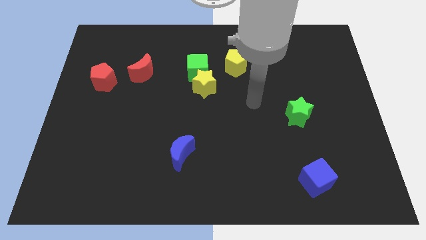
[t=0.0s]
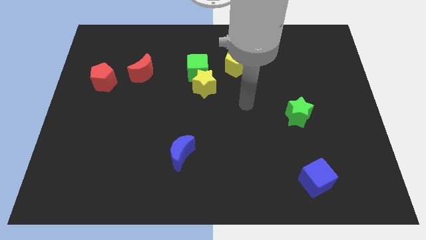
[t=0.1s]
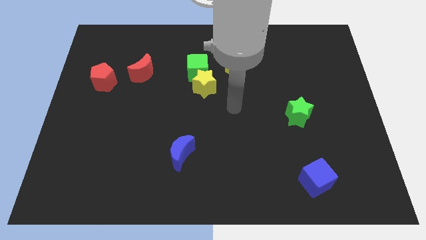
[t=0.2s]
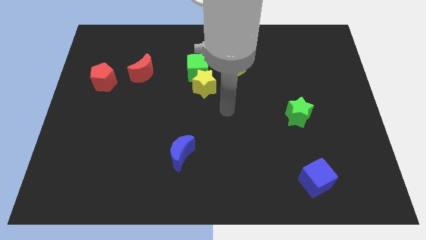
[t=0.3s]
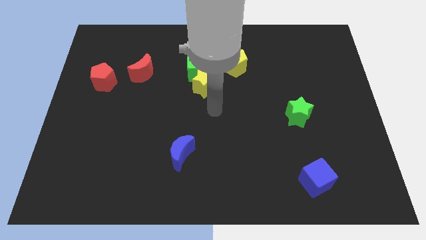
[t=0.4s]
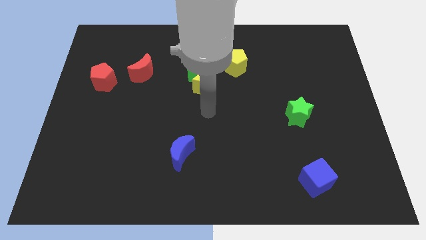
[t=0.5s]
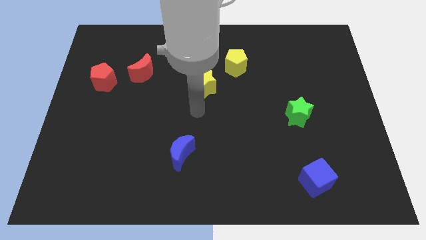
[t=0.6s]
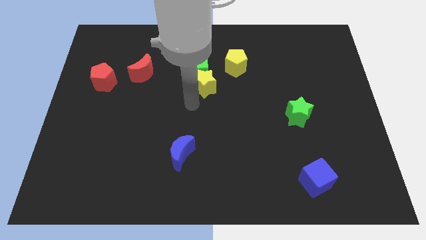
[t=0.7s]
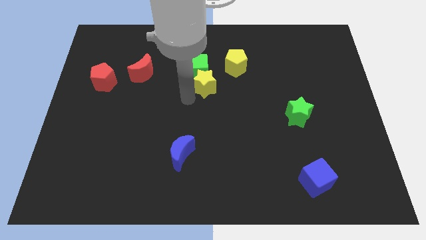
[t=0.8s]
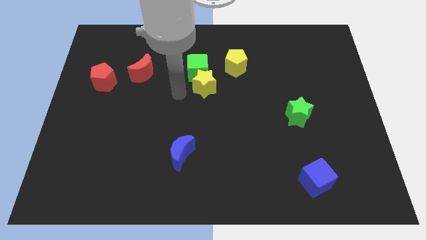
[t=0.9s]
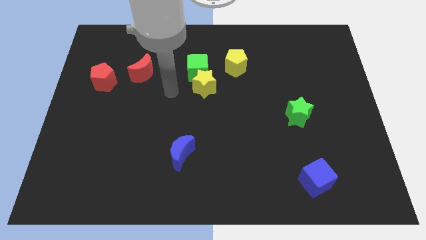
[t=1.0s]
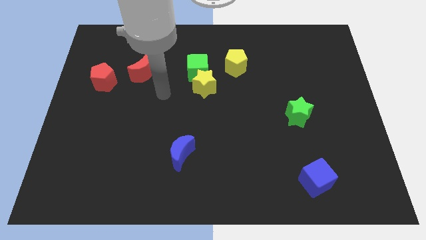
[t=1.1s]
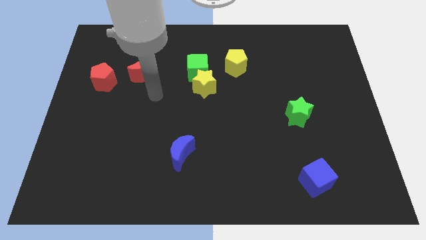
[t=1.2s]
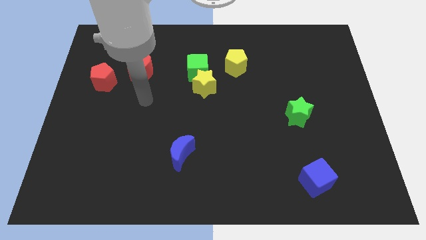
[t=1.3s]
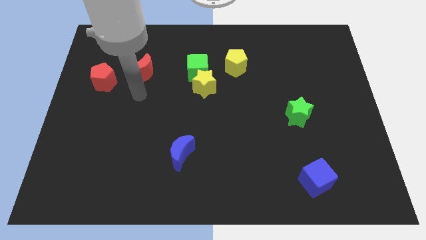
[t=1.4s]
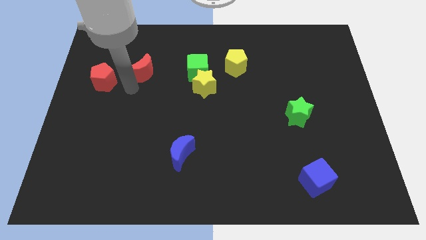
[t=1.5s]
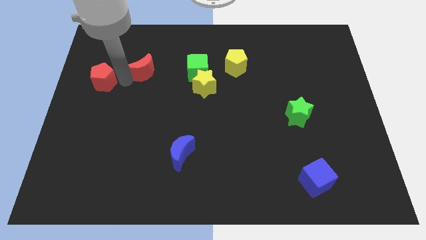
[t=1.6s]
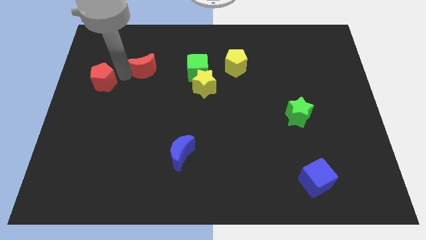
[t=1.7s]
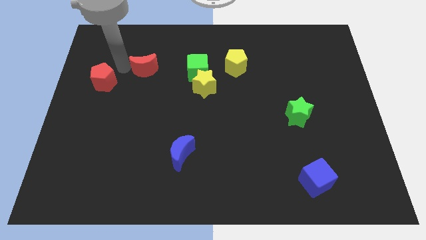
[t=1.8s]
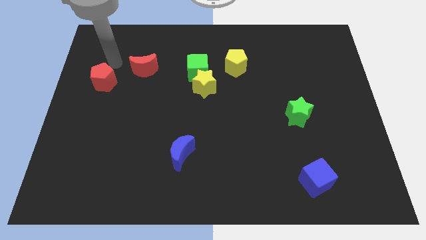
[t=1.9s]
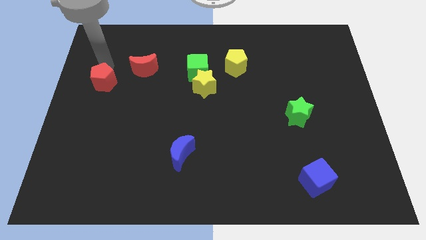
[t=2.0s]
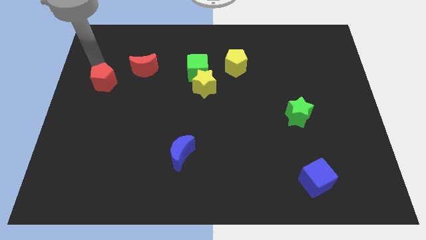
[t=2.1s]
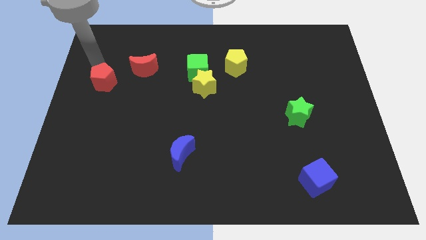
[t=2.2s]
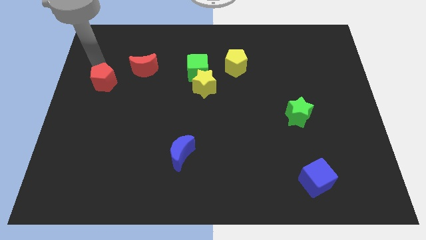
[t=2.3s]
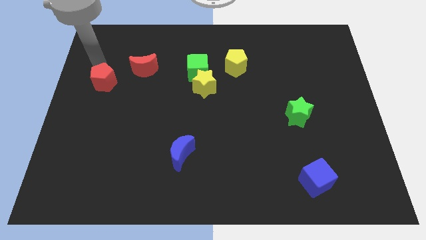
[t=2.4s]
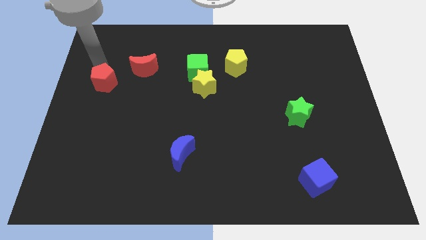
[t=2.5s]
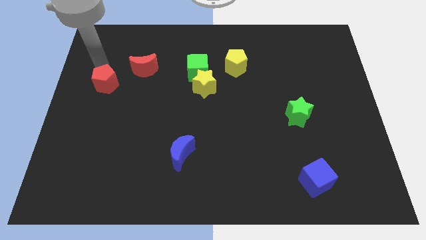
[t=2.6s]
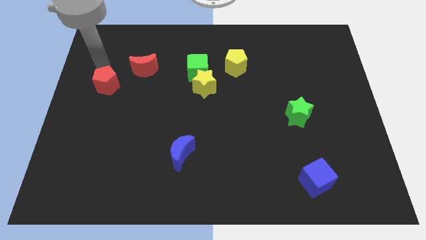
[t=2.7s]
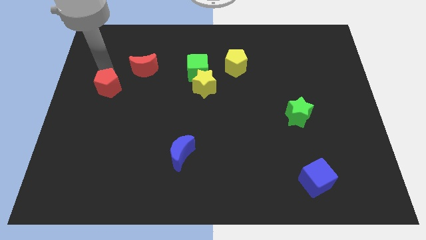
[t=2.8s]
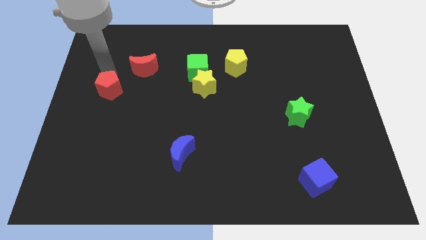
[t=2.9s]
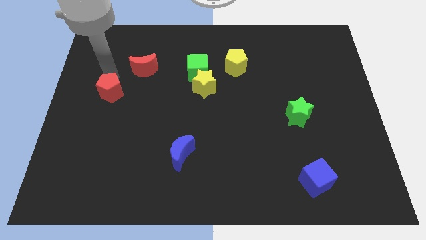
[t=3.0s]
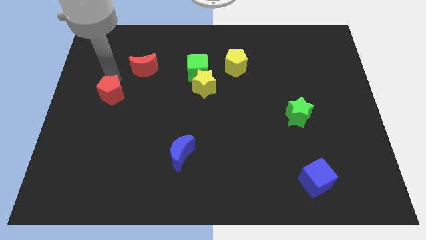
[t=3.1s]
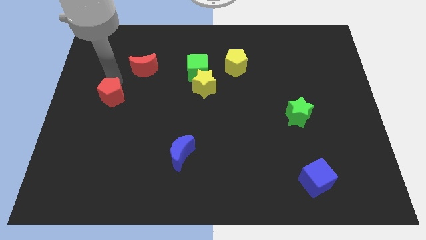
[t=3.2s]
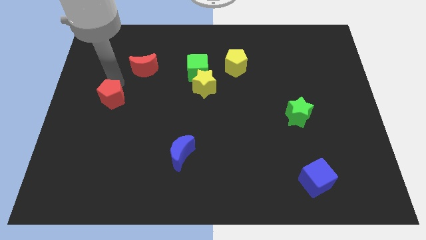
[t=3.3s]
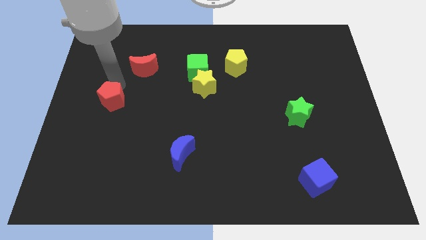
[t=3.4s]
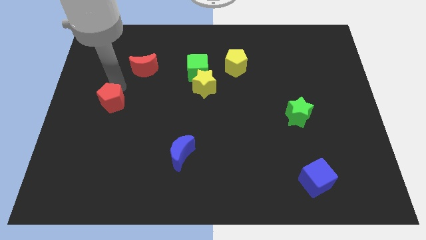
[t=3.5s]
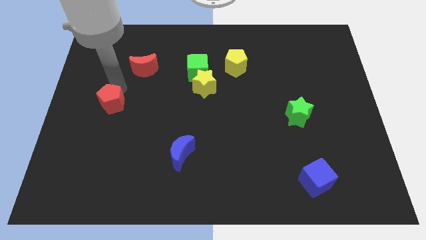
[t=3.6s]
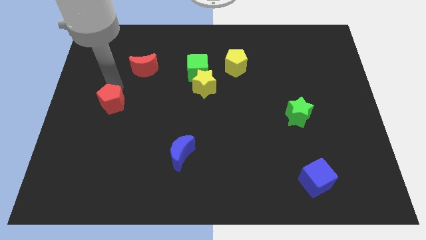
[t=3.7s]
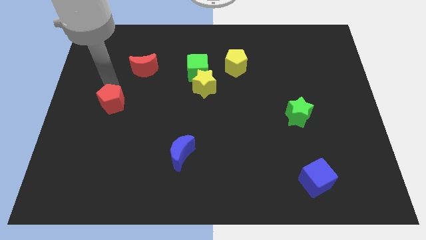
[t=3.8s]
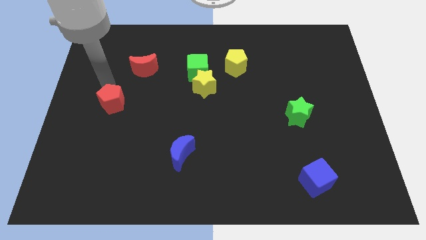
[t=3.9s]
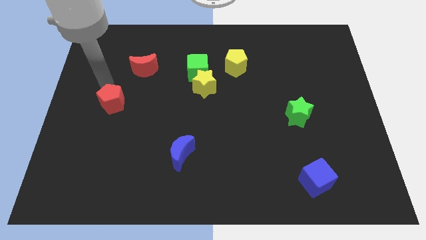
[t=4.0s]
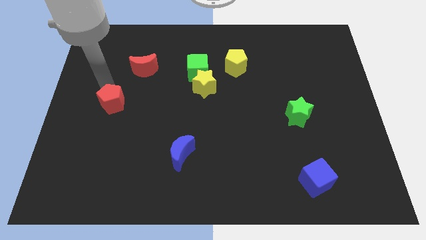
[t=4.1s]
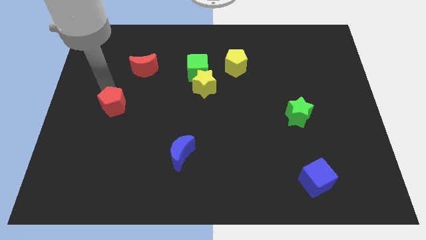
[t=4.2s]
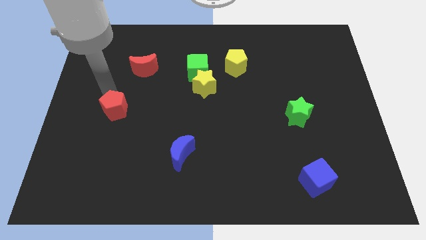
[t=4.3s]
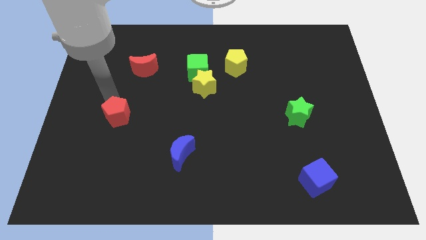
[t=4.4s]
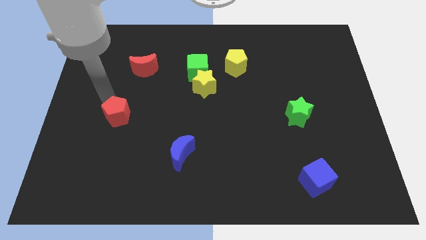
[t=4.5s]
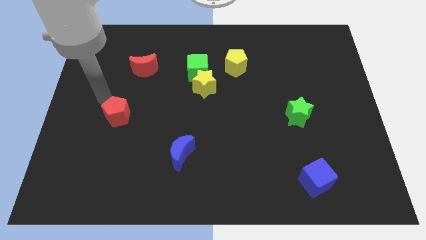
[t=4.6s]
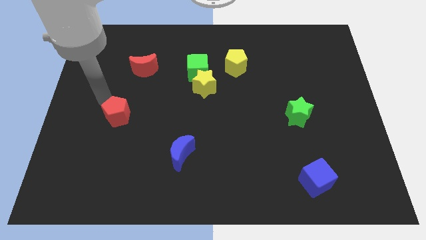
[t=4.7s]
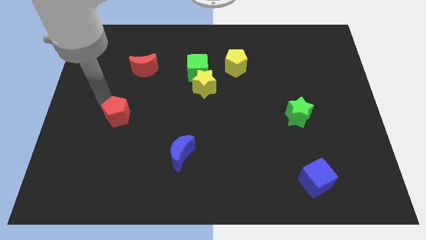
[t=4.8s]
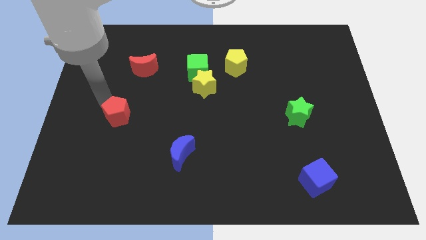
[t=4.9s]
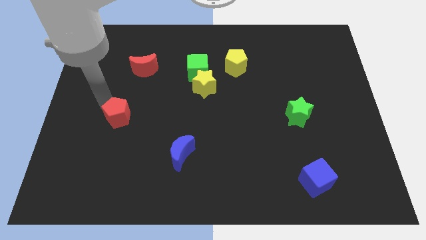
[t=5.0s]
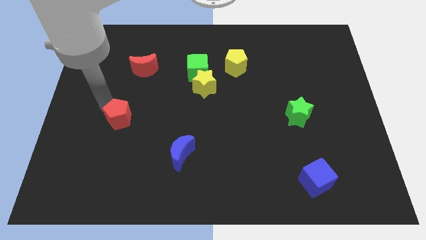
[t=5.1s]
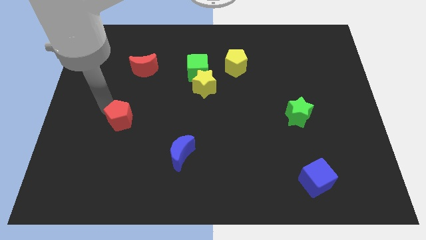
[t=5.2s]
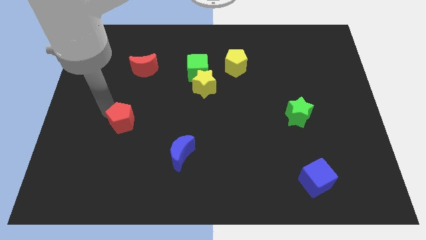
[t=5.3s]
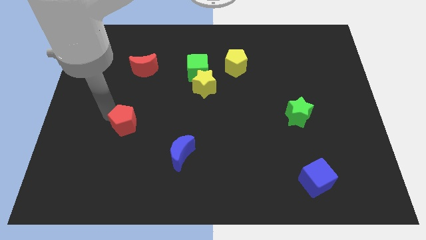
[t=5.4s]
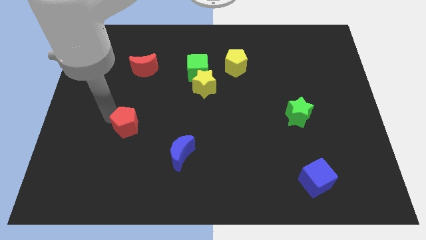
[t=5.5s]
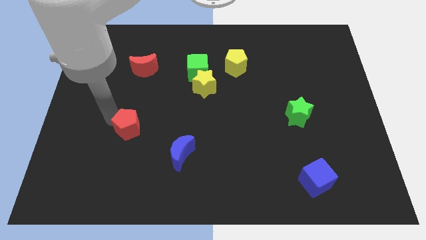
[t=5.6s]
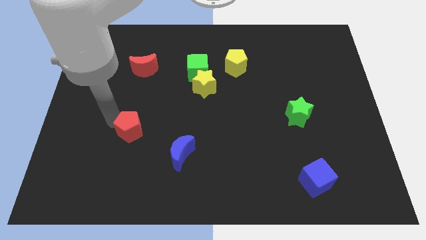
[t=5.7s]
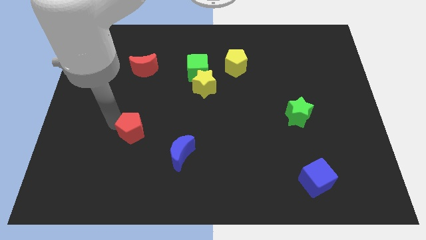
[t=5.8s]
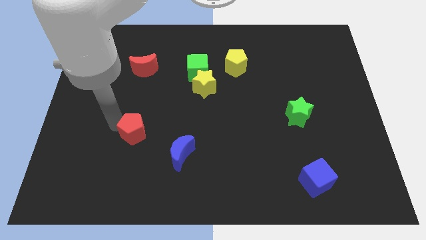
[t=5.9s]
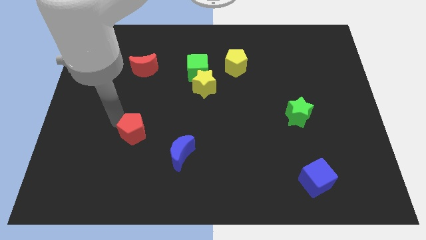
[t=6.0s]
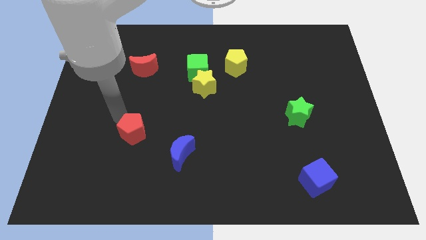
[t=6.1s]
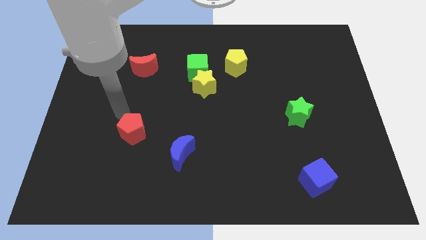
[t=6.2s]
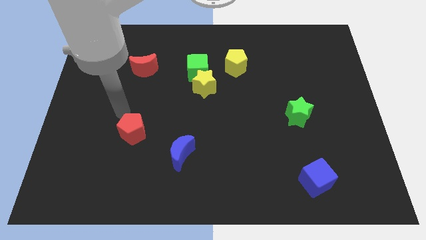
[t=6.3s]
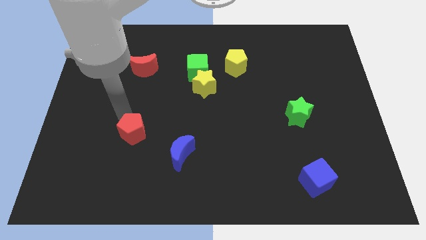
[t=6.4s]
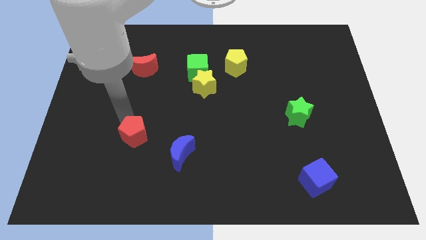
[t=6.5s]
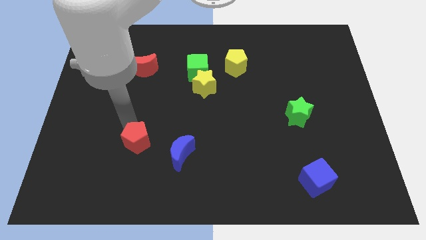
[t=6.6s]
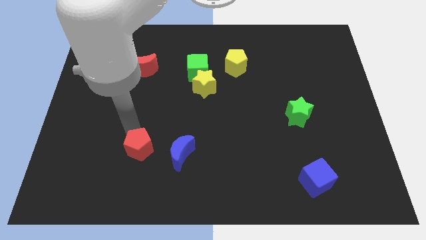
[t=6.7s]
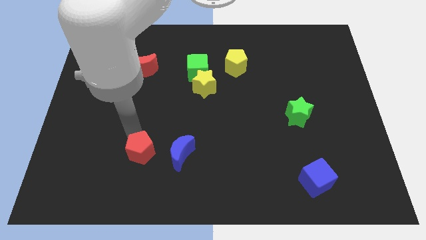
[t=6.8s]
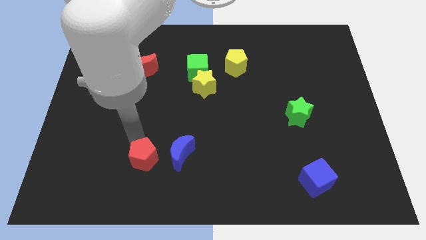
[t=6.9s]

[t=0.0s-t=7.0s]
slide the red pentagon to the bottom left of the blue moon
